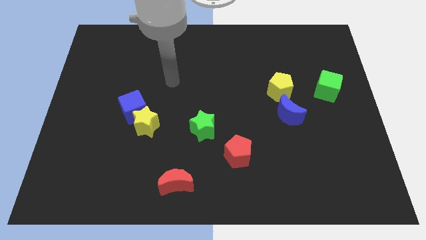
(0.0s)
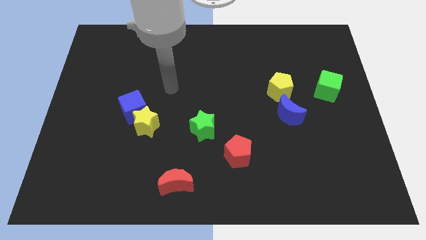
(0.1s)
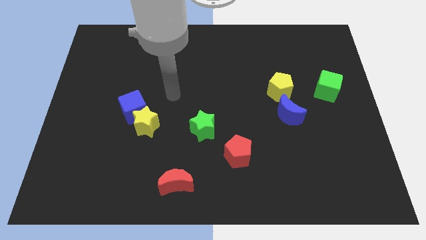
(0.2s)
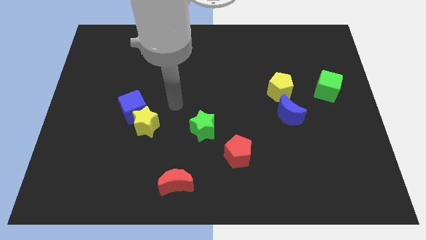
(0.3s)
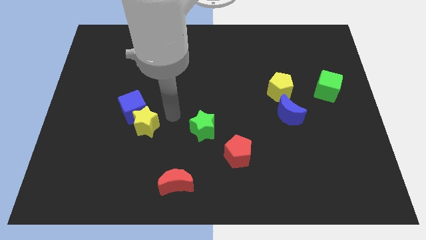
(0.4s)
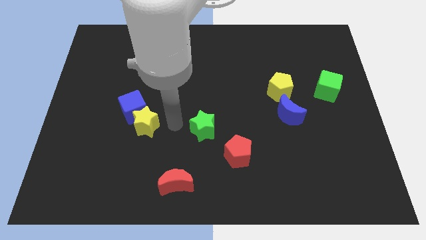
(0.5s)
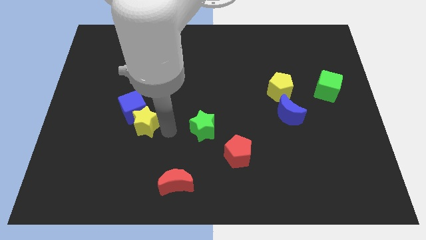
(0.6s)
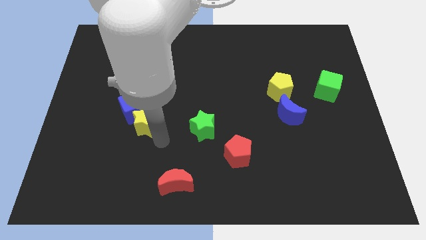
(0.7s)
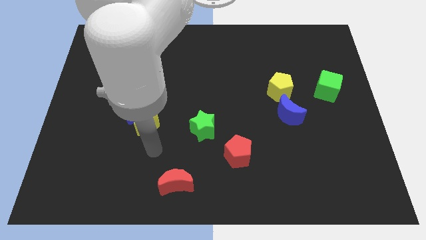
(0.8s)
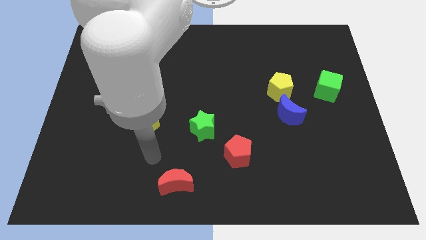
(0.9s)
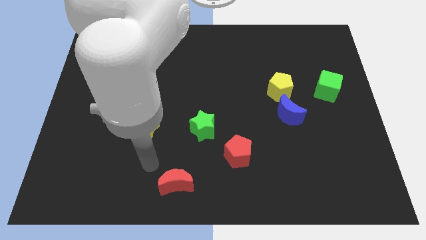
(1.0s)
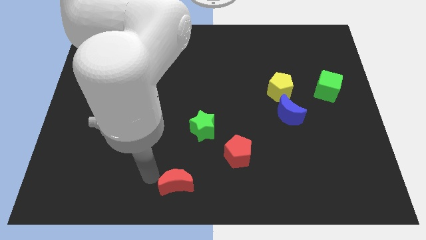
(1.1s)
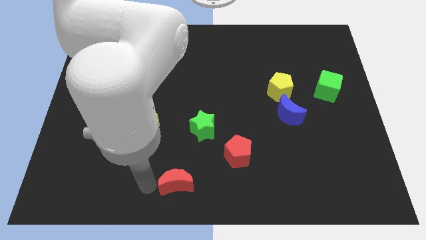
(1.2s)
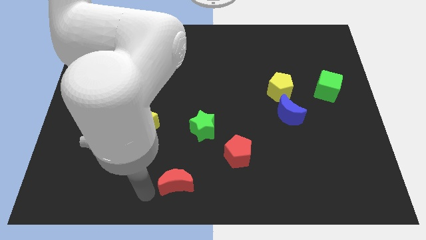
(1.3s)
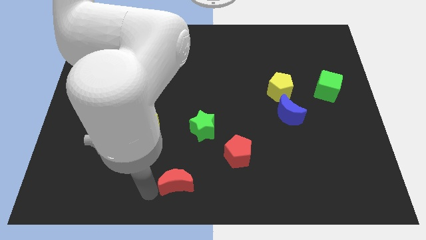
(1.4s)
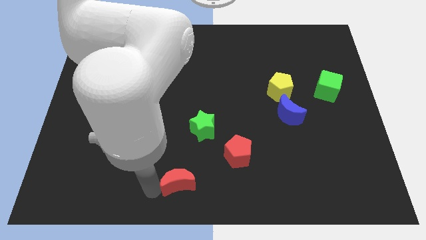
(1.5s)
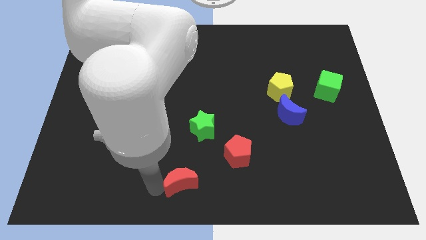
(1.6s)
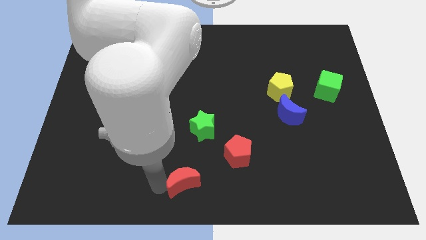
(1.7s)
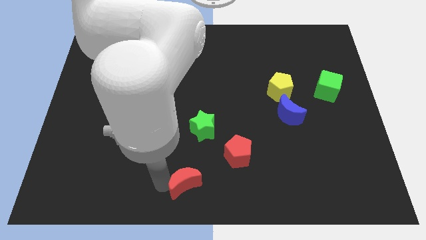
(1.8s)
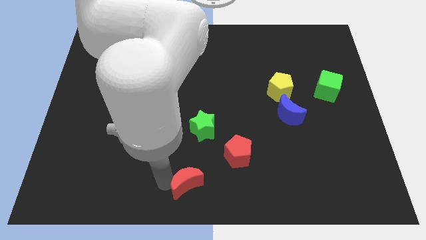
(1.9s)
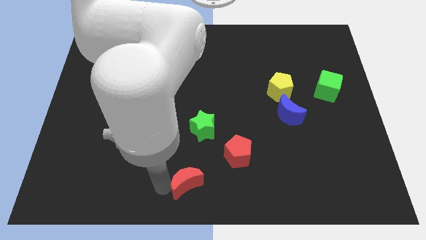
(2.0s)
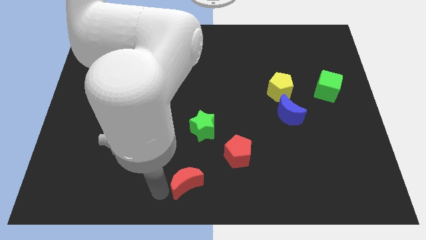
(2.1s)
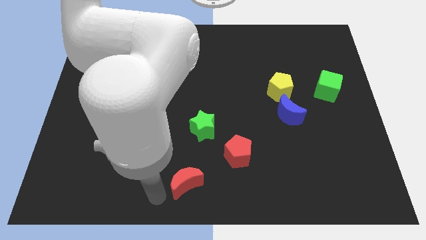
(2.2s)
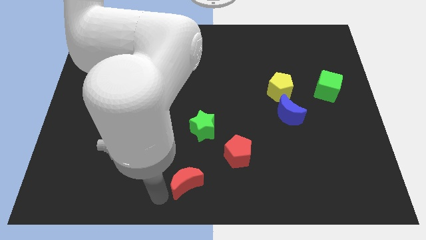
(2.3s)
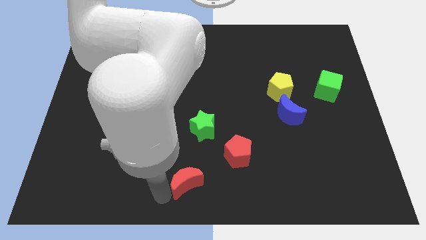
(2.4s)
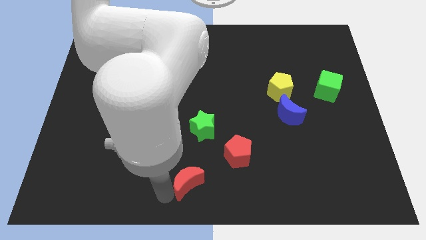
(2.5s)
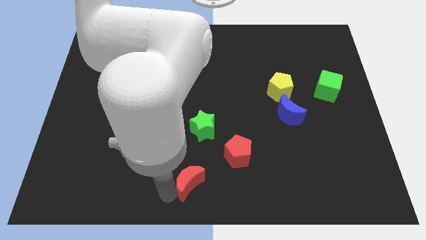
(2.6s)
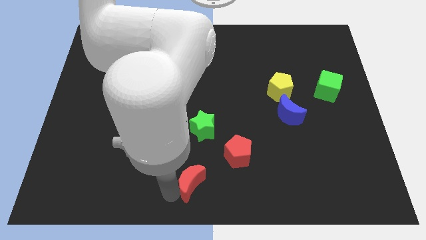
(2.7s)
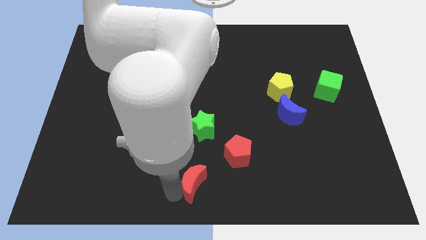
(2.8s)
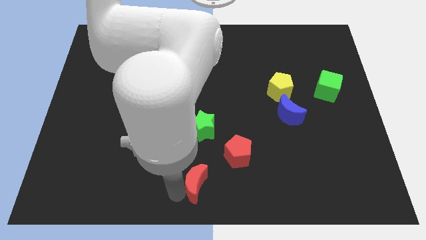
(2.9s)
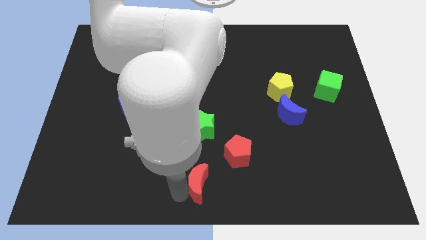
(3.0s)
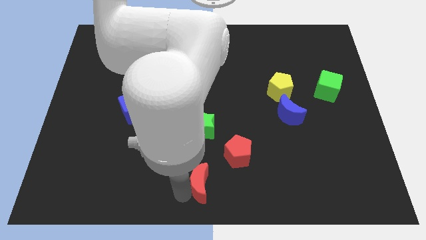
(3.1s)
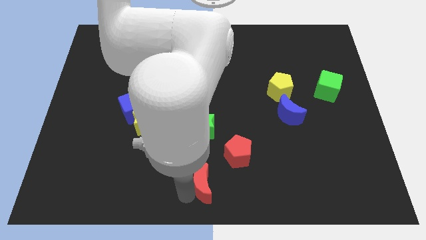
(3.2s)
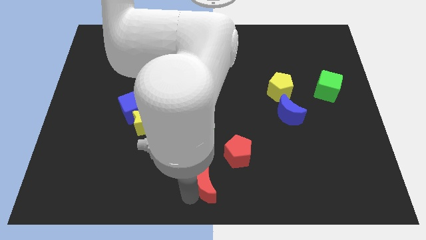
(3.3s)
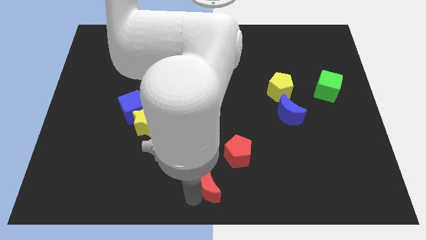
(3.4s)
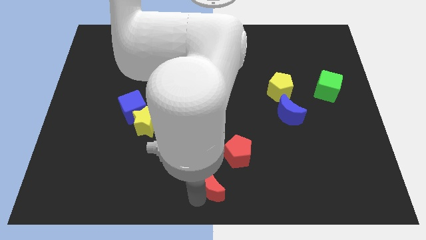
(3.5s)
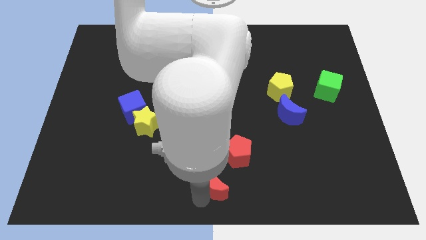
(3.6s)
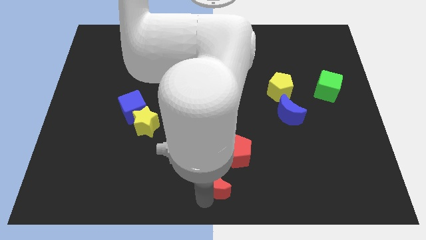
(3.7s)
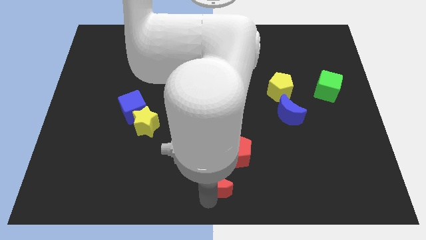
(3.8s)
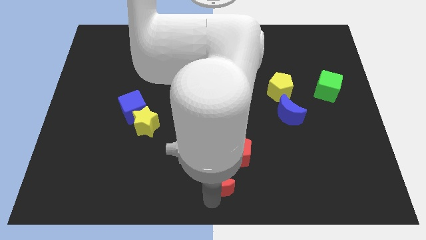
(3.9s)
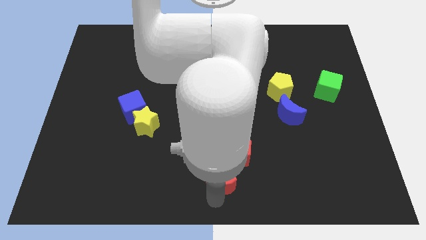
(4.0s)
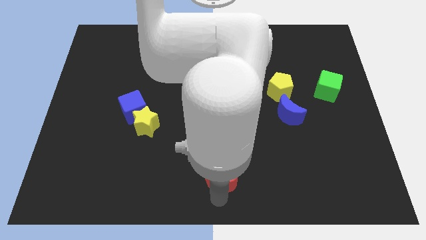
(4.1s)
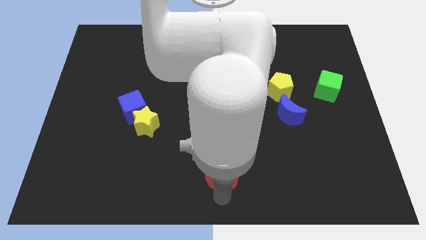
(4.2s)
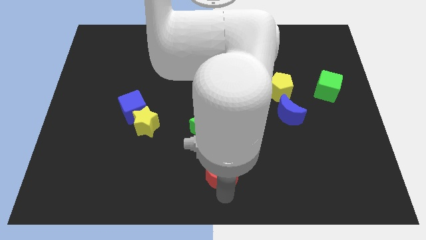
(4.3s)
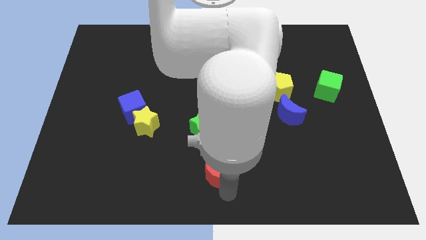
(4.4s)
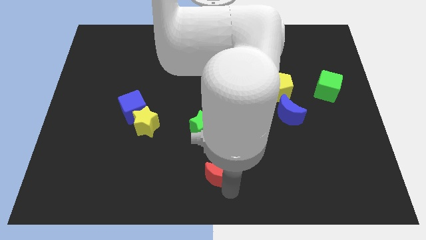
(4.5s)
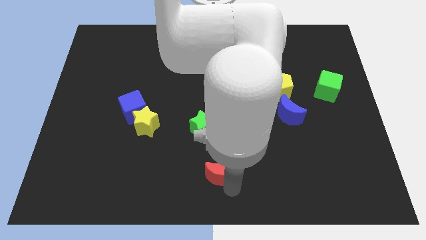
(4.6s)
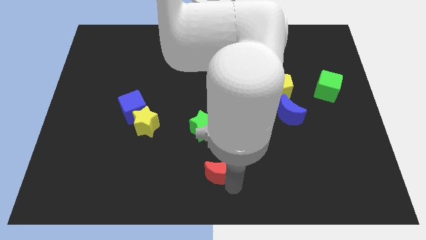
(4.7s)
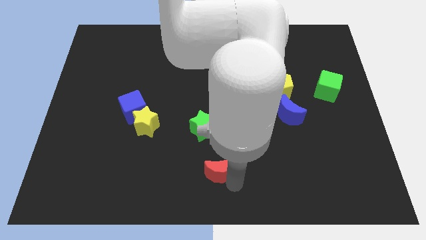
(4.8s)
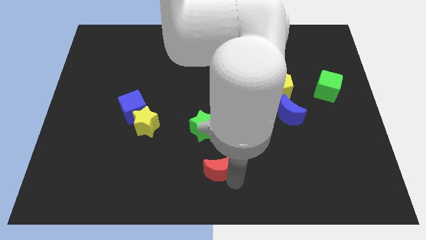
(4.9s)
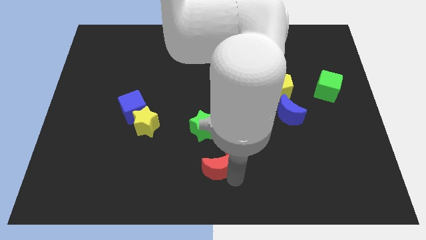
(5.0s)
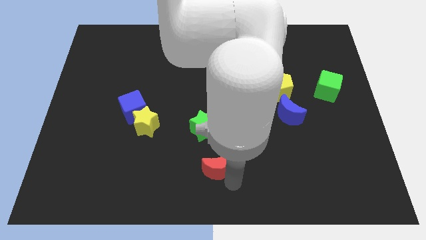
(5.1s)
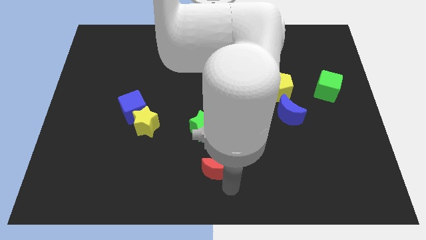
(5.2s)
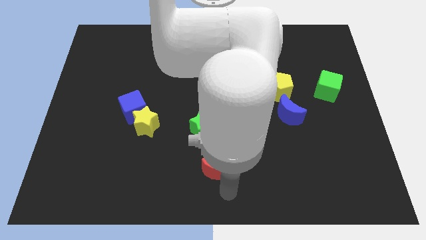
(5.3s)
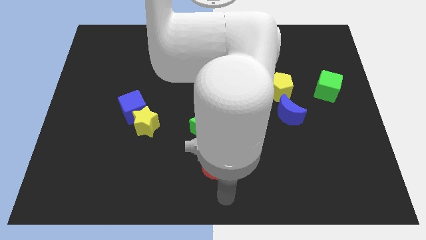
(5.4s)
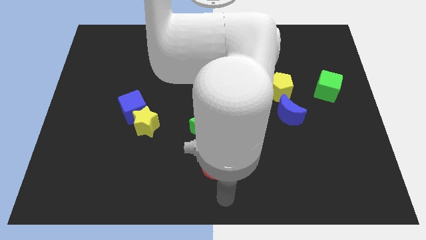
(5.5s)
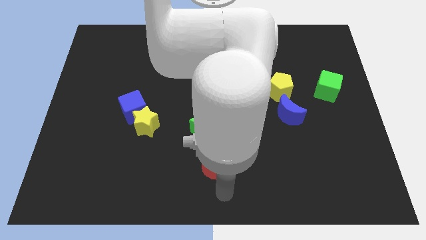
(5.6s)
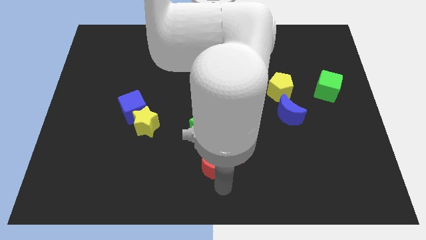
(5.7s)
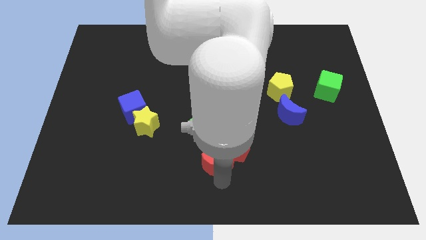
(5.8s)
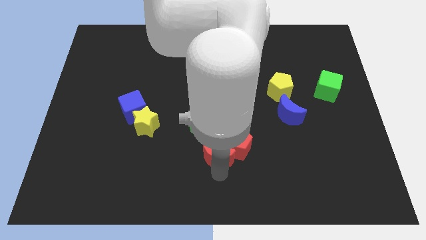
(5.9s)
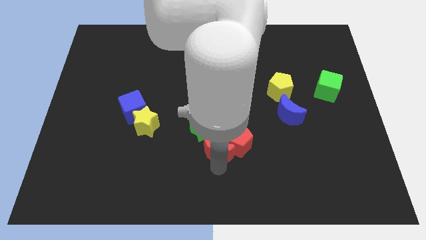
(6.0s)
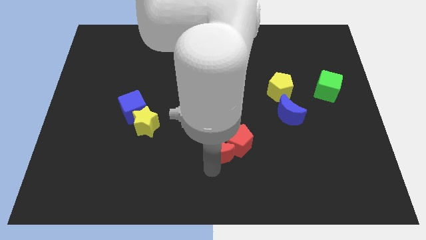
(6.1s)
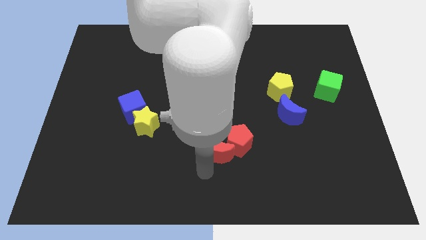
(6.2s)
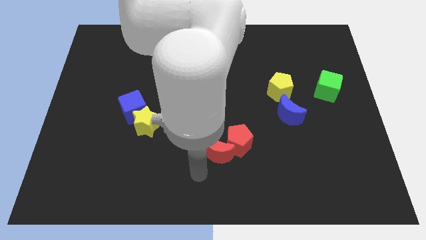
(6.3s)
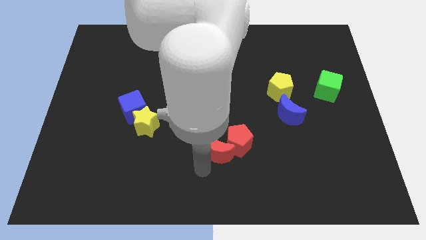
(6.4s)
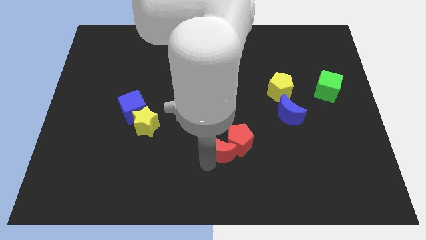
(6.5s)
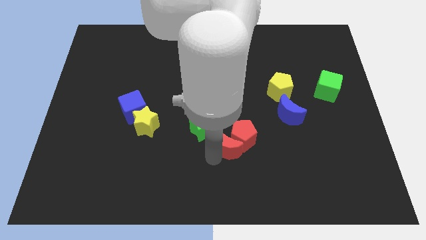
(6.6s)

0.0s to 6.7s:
slide the red moon to the right side of the green star
